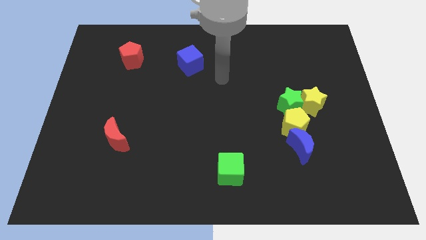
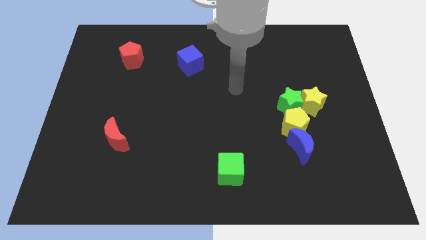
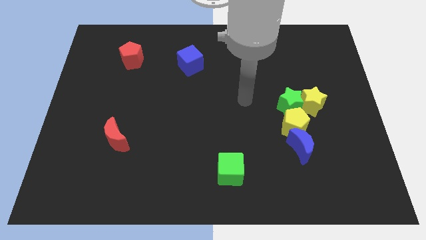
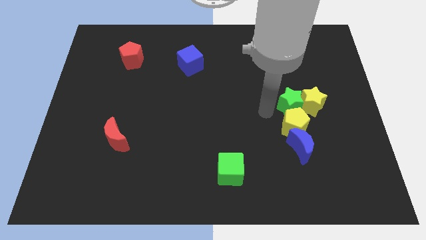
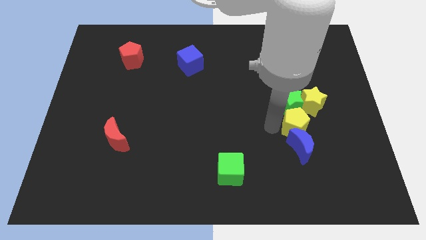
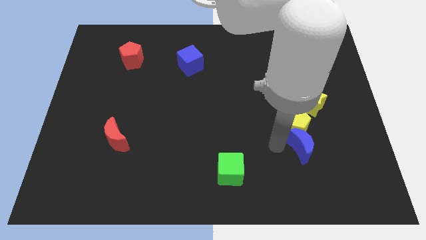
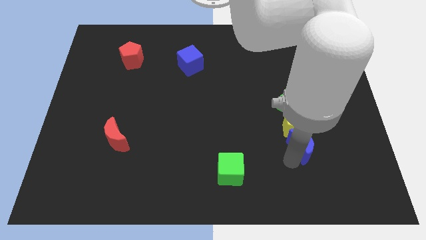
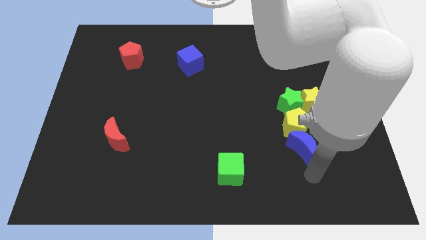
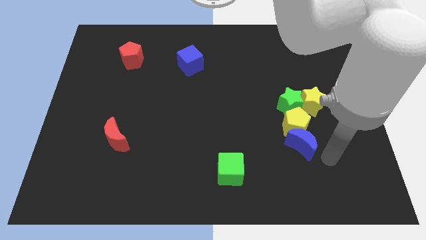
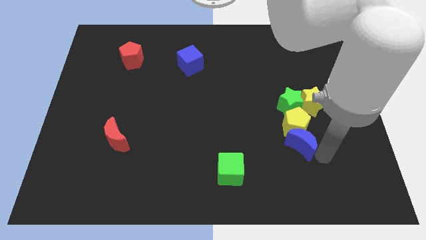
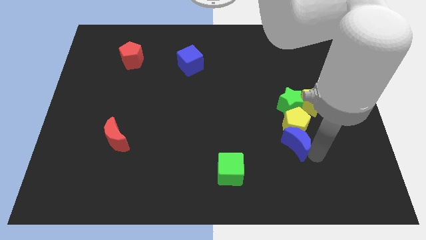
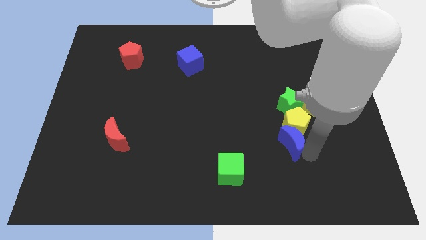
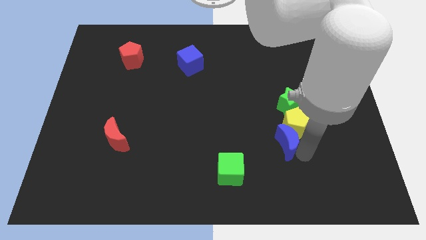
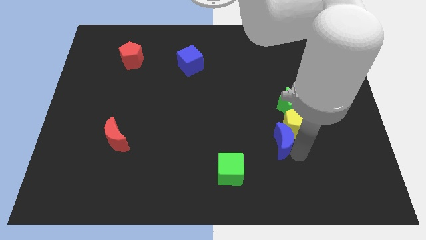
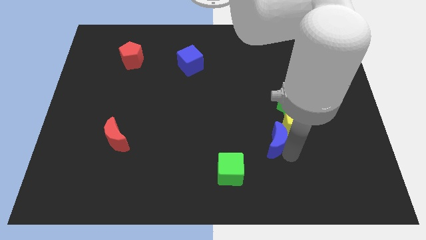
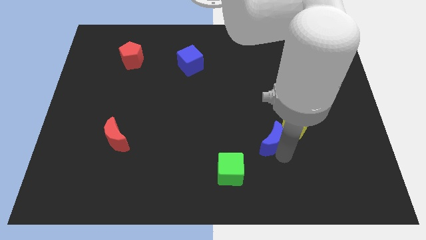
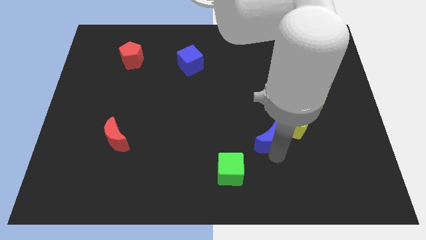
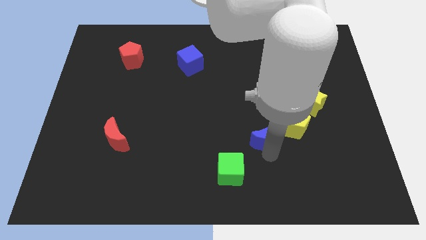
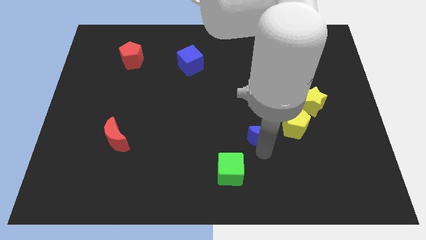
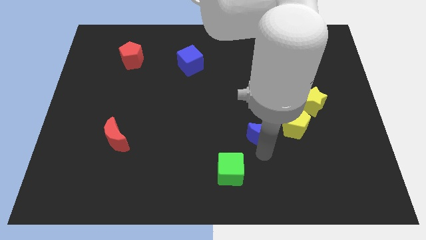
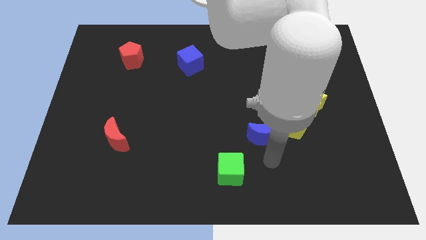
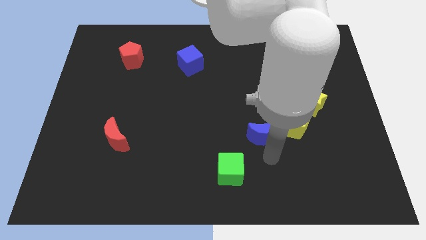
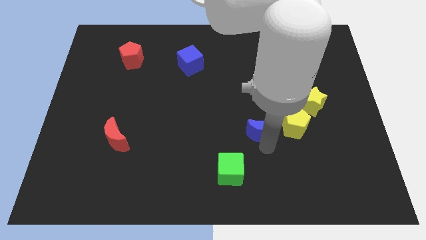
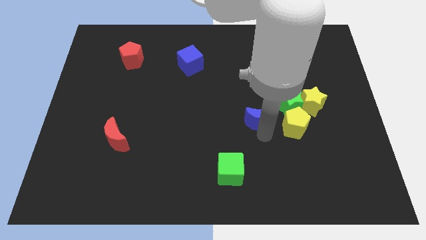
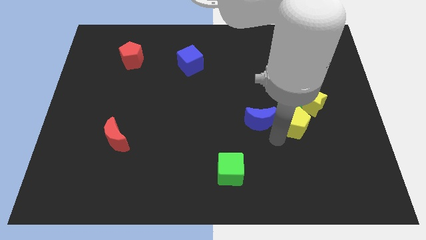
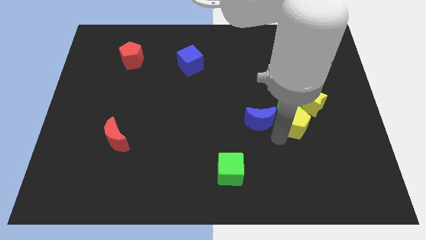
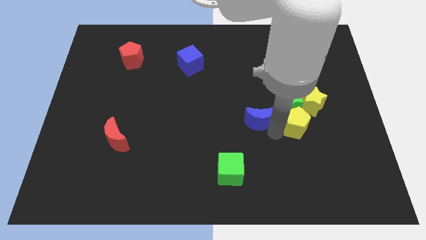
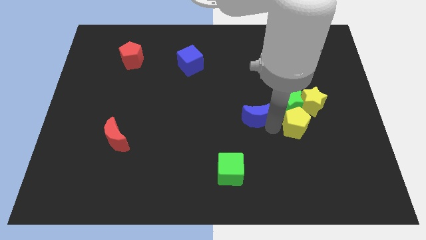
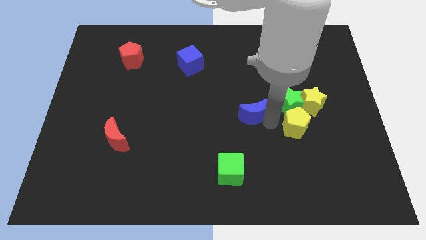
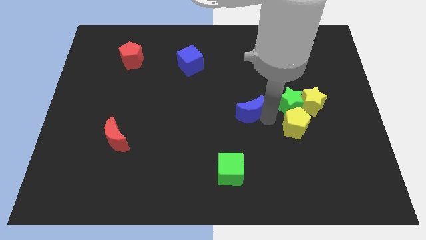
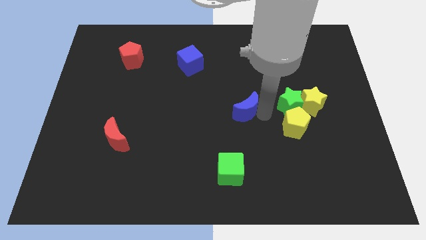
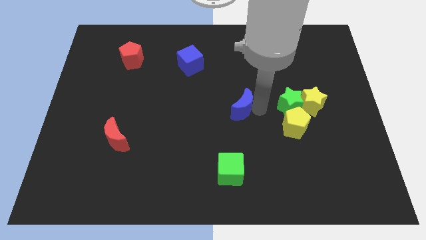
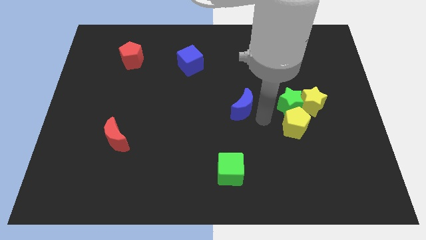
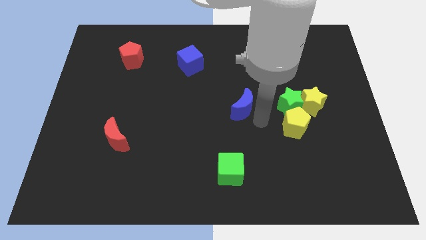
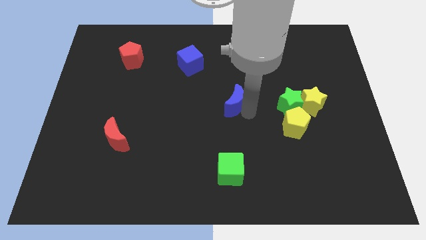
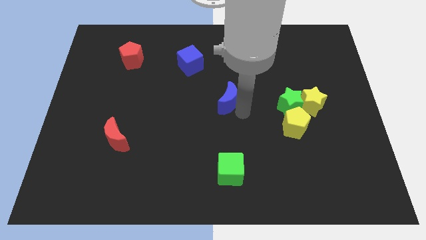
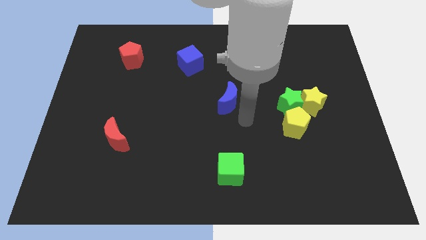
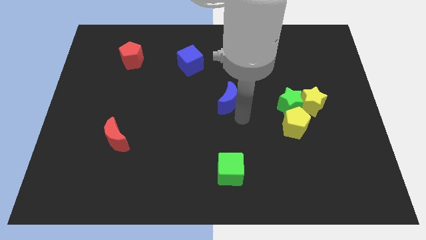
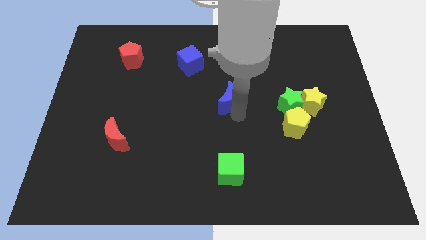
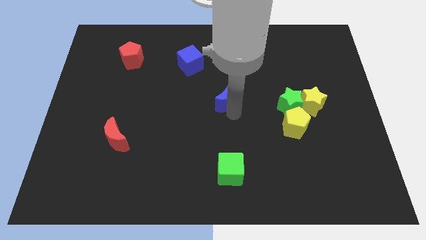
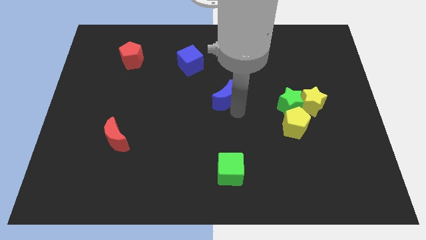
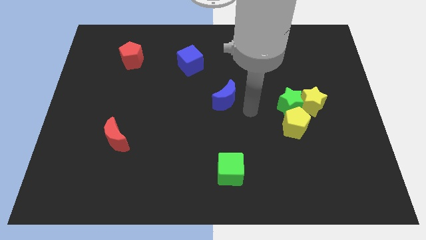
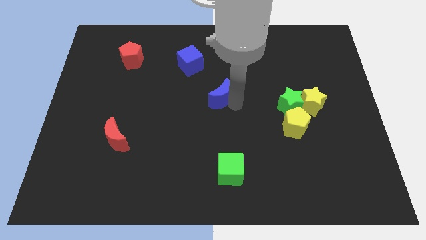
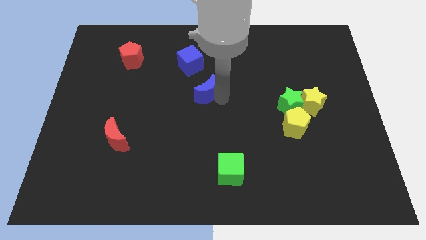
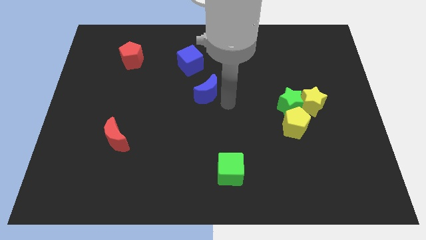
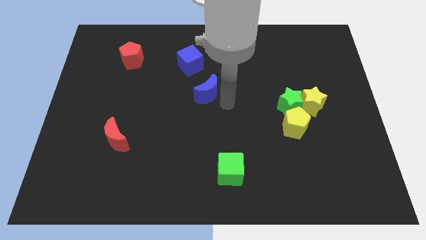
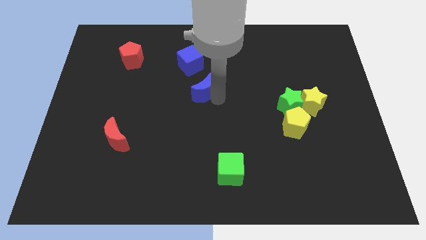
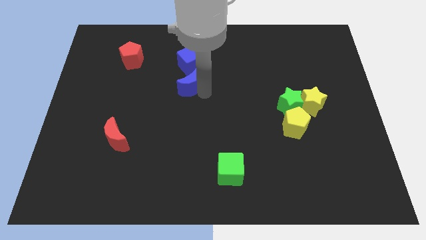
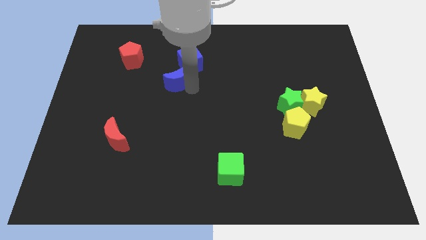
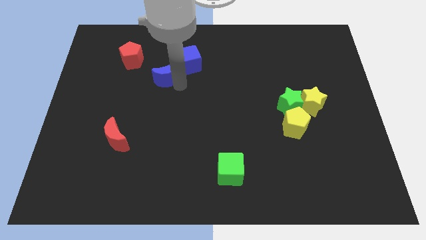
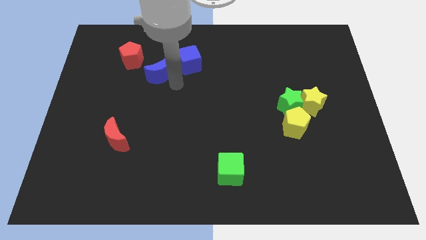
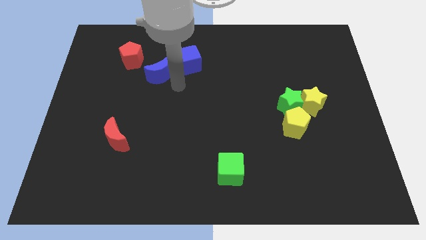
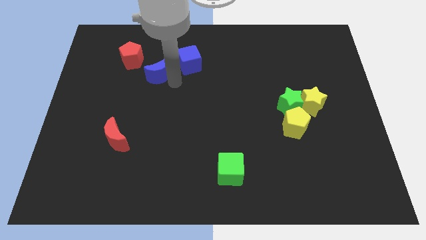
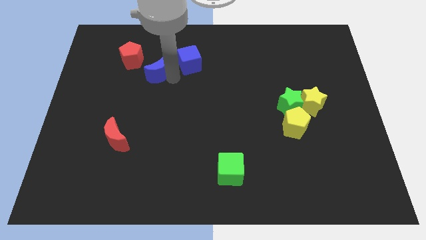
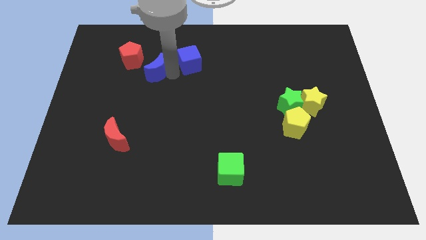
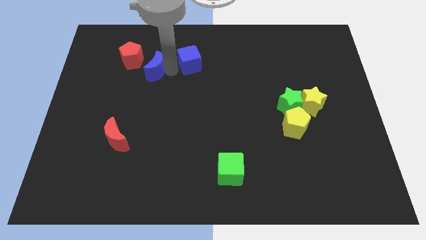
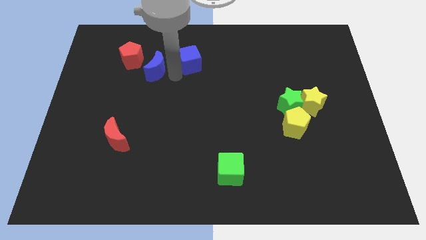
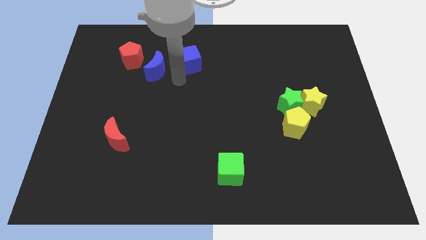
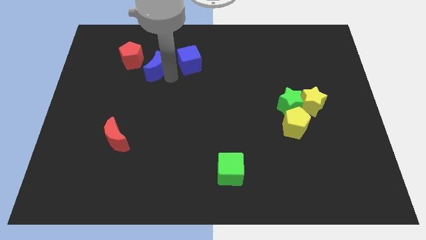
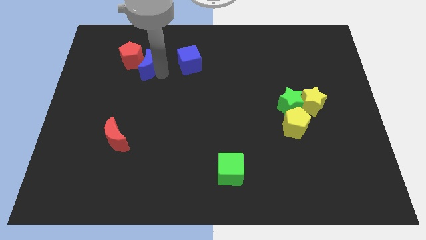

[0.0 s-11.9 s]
put the blue moon next to the red pentagon

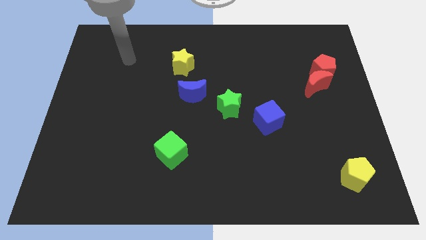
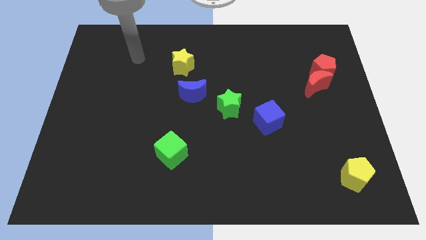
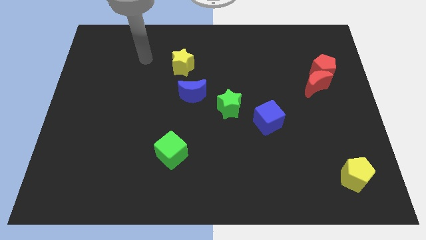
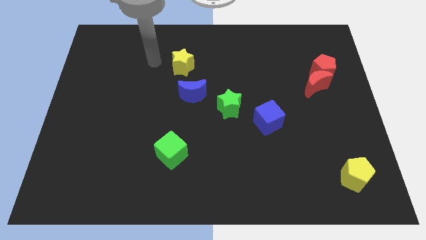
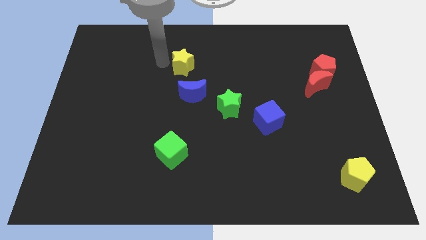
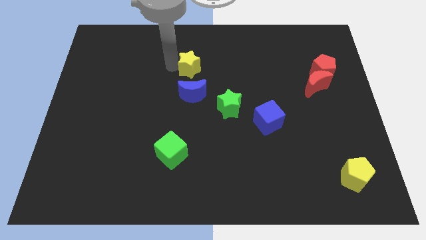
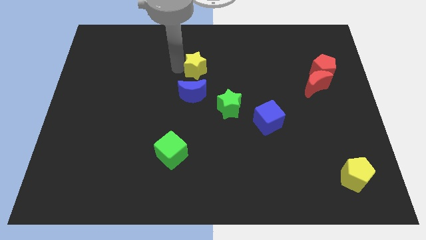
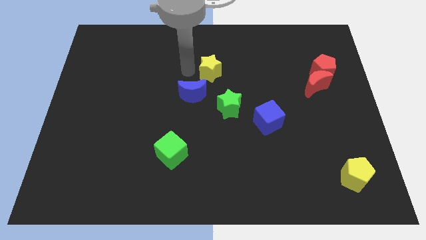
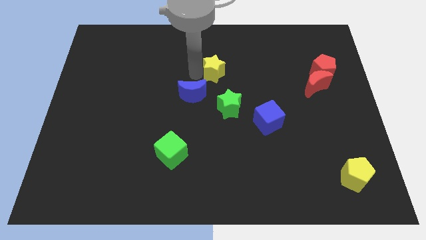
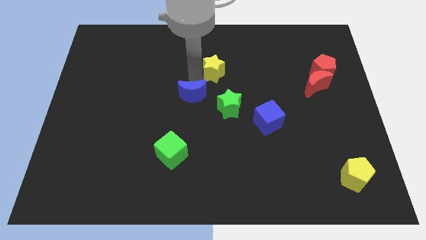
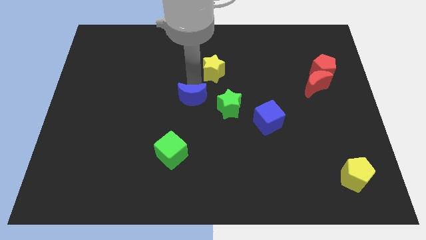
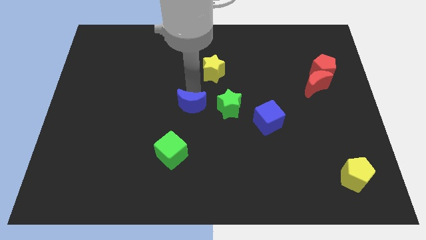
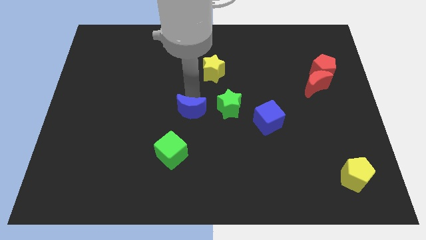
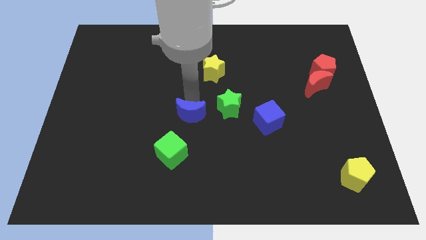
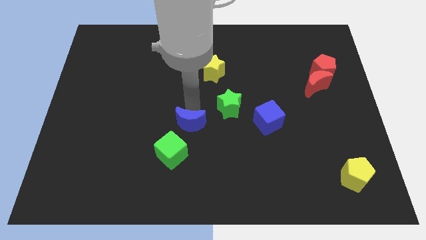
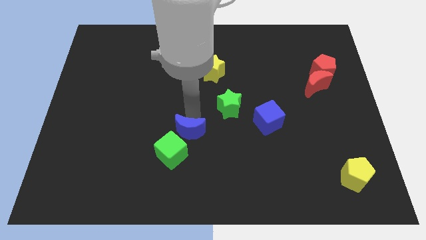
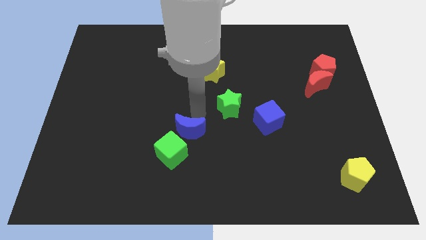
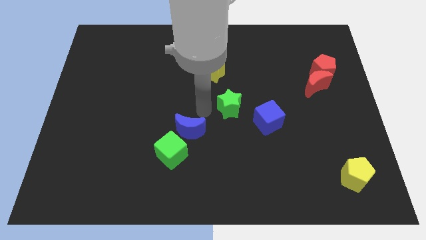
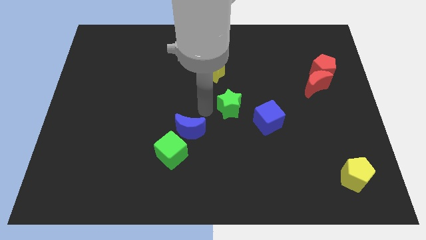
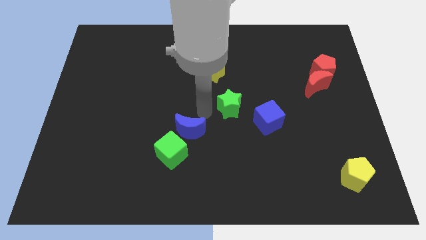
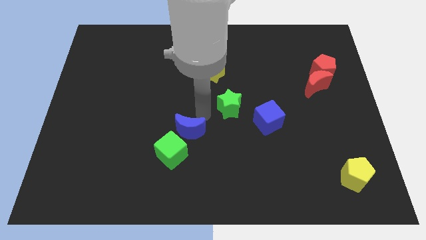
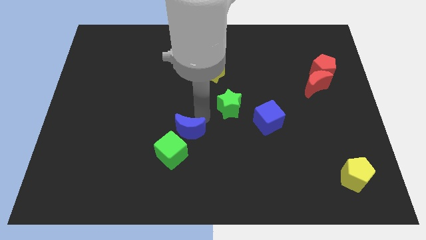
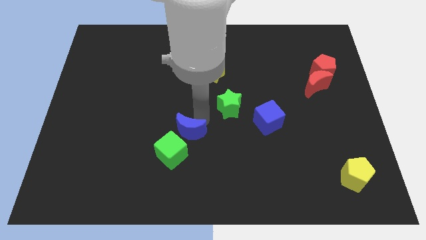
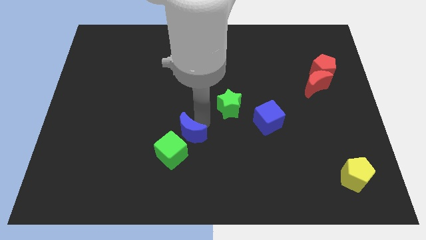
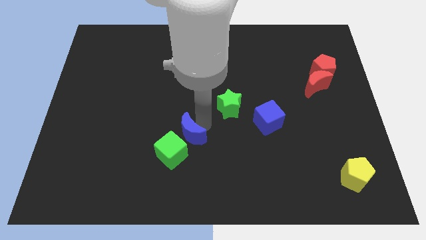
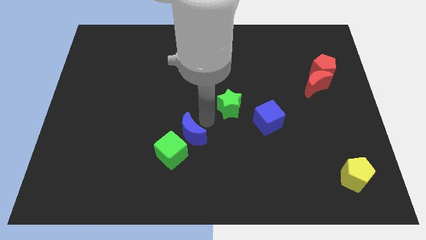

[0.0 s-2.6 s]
push the blue moon close to the green cube
